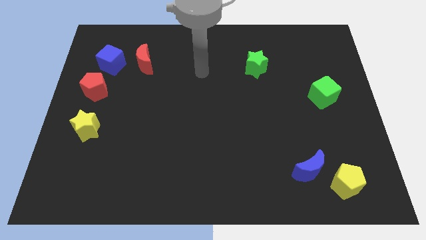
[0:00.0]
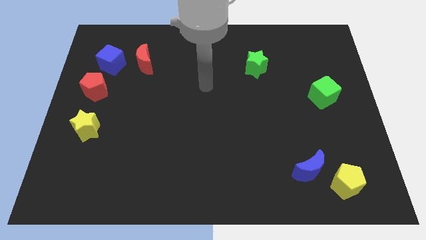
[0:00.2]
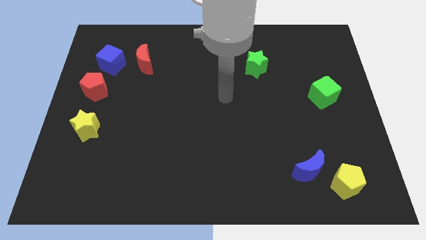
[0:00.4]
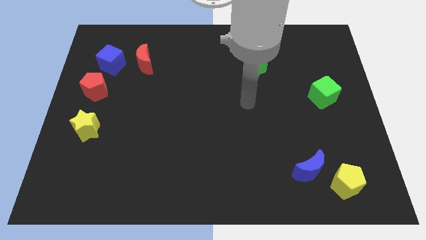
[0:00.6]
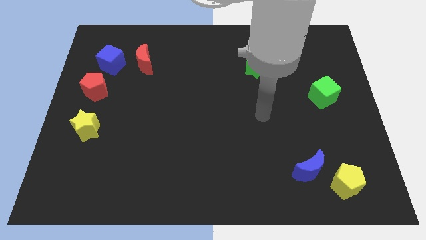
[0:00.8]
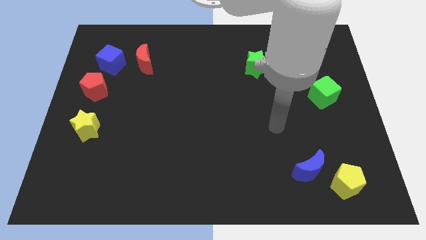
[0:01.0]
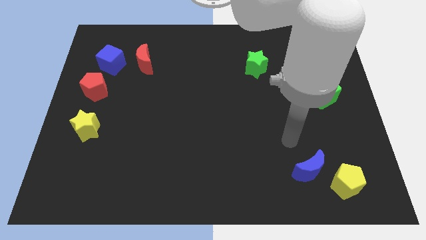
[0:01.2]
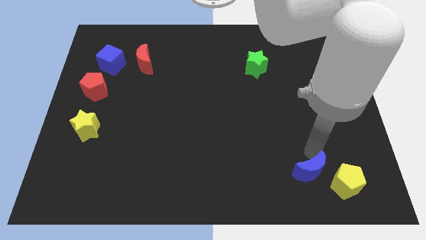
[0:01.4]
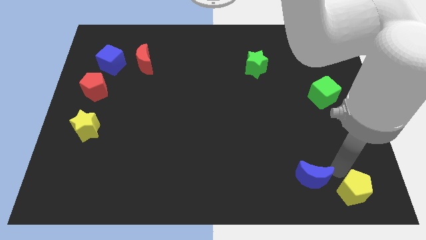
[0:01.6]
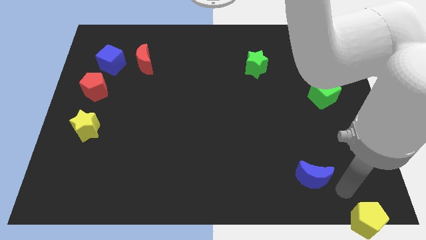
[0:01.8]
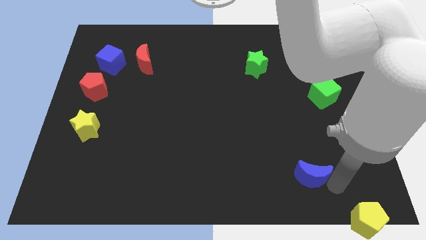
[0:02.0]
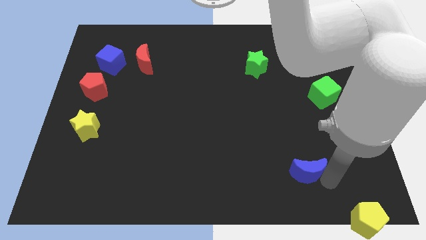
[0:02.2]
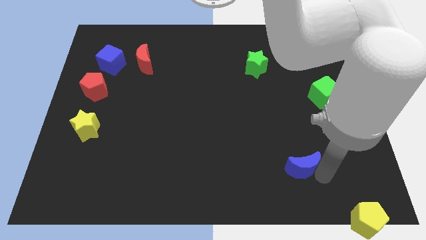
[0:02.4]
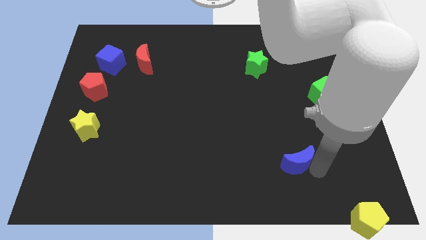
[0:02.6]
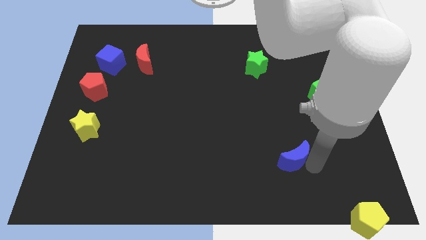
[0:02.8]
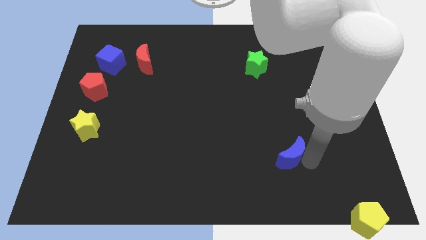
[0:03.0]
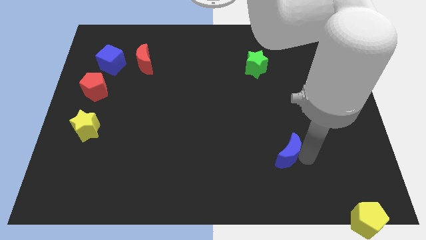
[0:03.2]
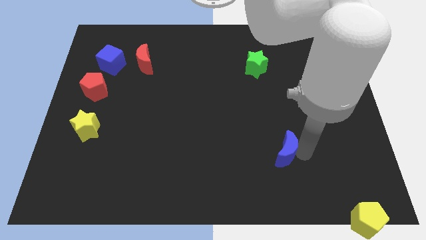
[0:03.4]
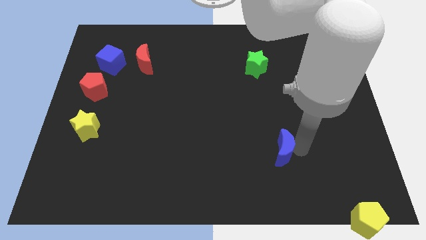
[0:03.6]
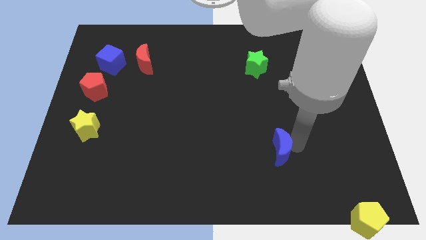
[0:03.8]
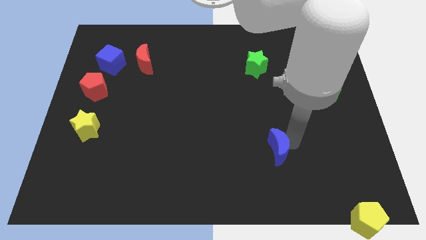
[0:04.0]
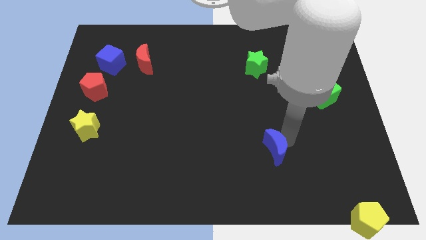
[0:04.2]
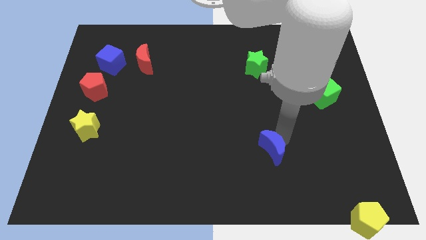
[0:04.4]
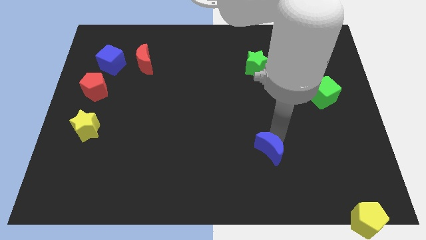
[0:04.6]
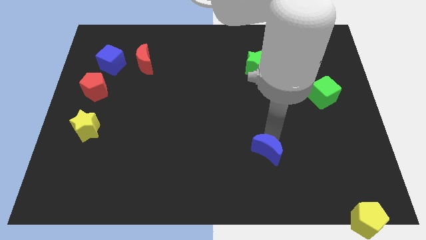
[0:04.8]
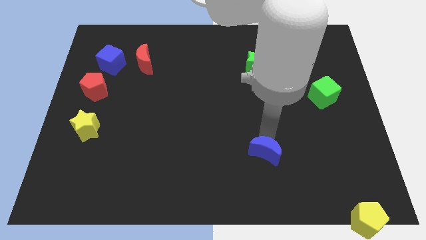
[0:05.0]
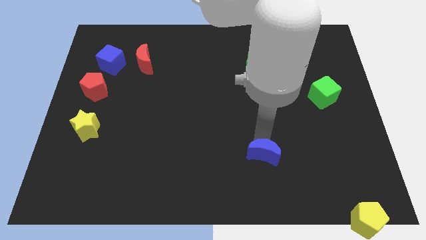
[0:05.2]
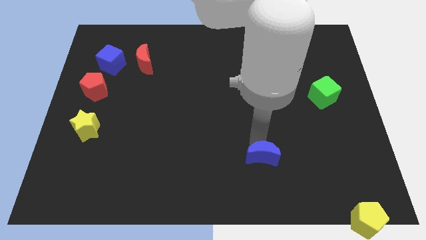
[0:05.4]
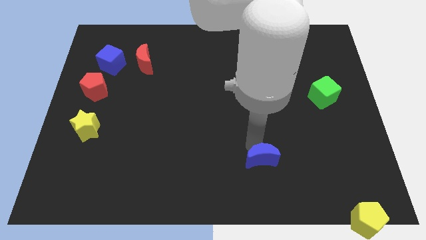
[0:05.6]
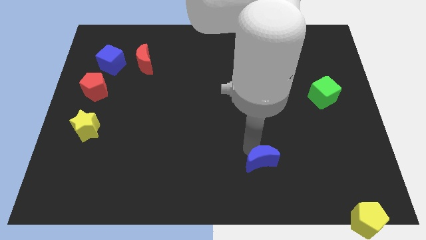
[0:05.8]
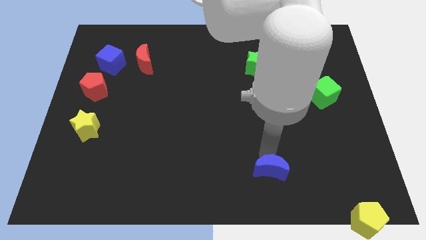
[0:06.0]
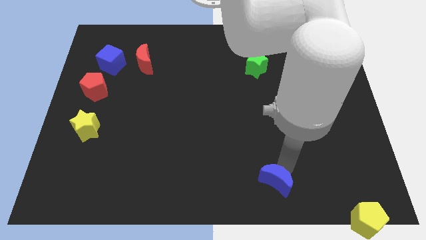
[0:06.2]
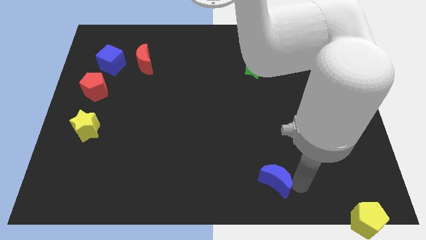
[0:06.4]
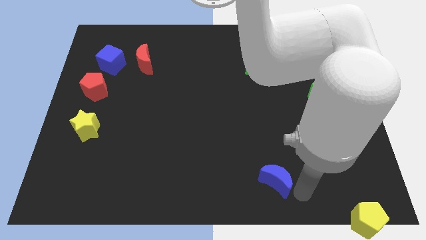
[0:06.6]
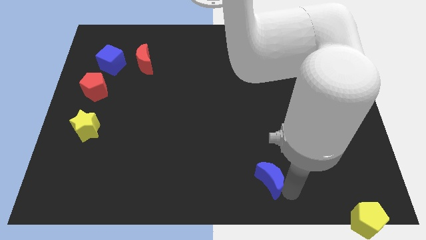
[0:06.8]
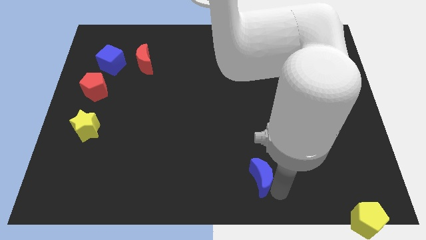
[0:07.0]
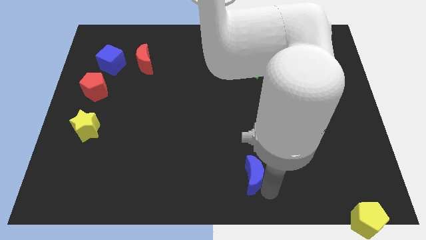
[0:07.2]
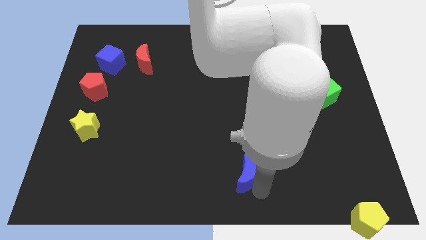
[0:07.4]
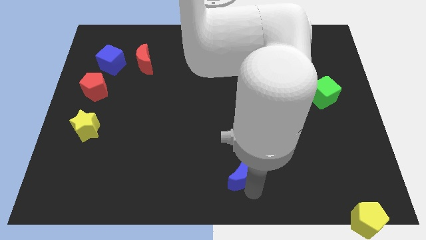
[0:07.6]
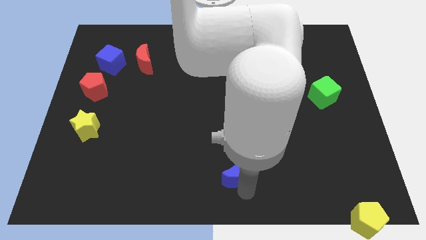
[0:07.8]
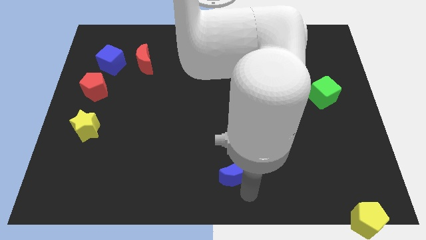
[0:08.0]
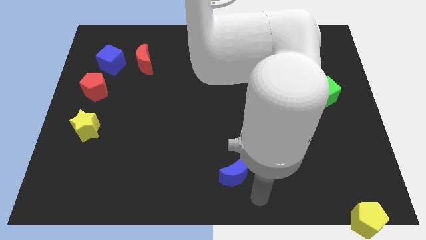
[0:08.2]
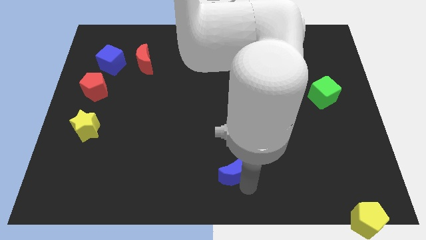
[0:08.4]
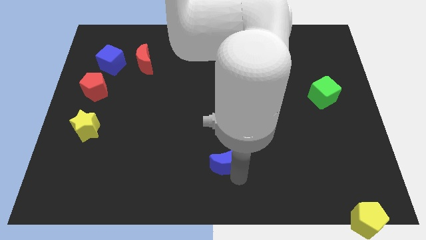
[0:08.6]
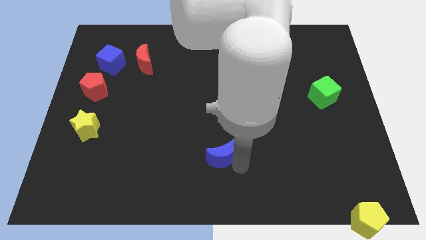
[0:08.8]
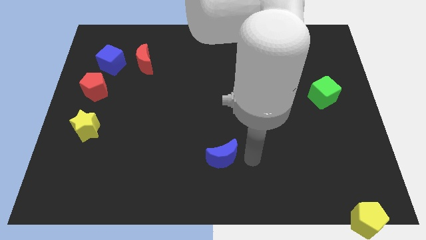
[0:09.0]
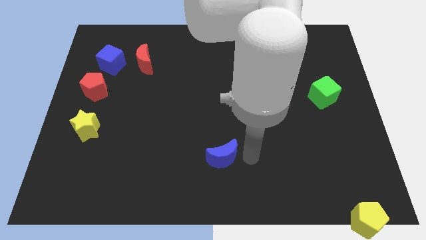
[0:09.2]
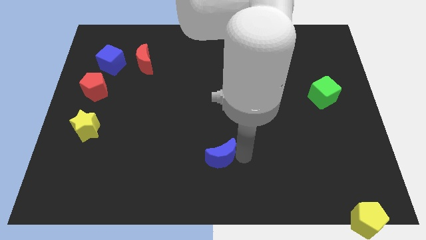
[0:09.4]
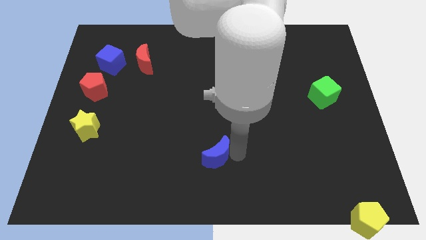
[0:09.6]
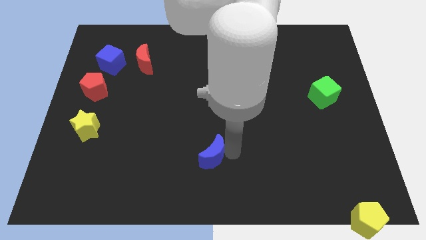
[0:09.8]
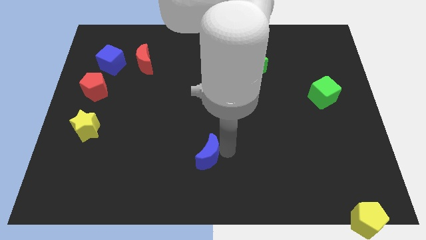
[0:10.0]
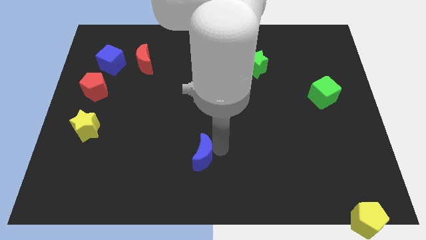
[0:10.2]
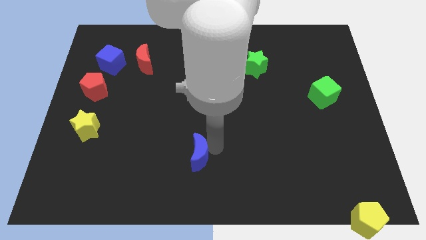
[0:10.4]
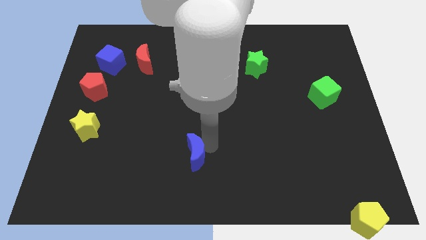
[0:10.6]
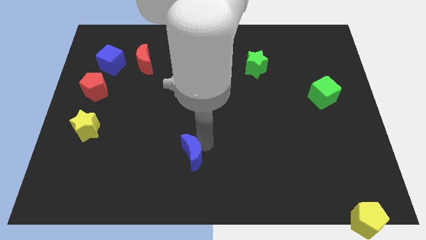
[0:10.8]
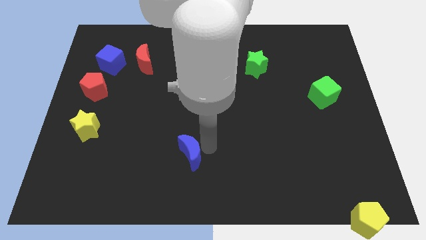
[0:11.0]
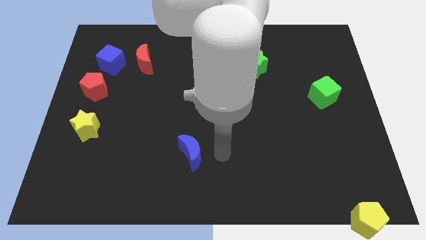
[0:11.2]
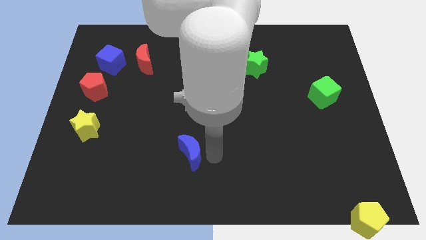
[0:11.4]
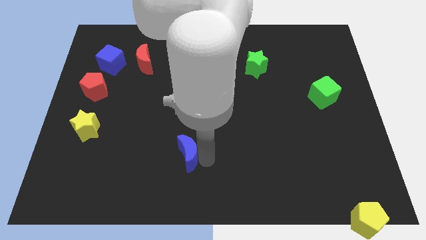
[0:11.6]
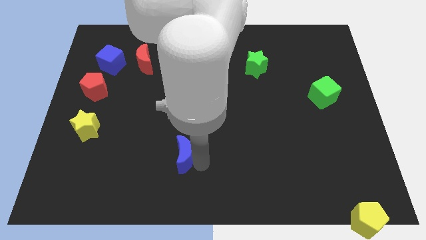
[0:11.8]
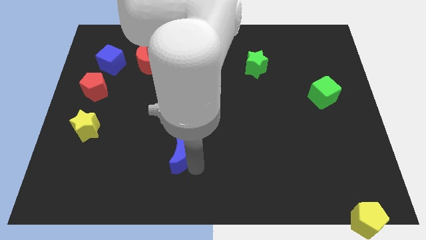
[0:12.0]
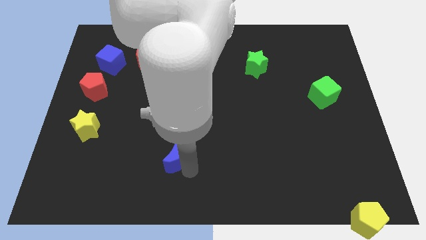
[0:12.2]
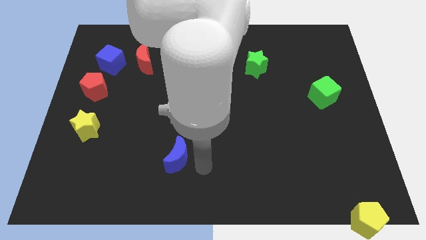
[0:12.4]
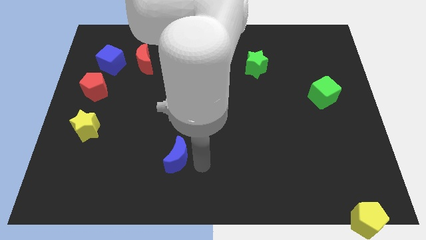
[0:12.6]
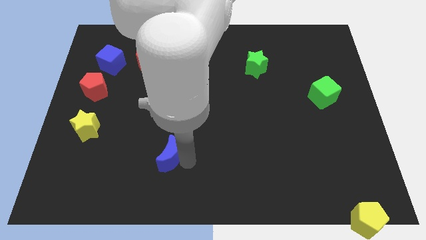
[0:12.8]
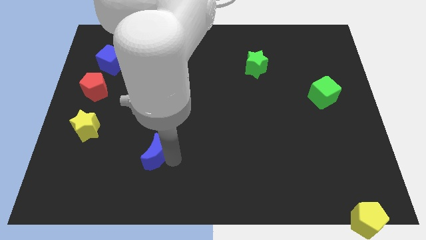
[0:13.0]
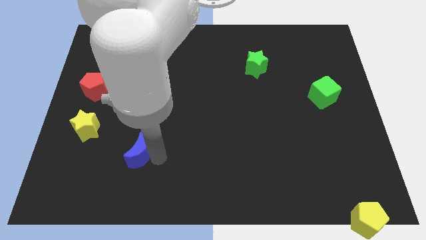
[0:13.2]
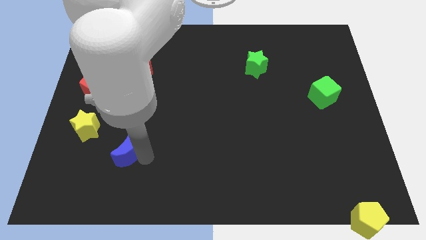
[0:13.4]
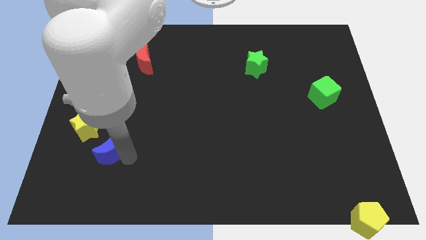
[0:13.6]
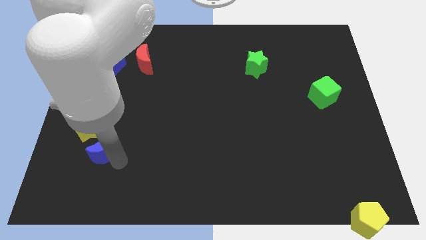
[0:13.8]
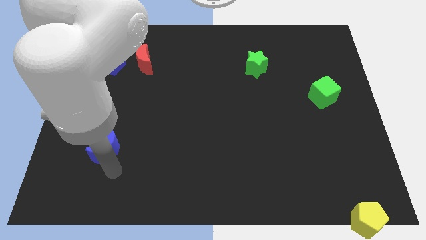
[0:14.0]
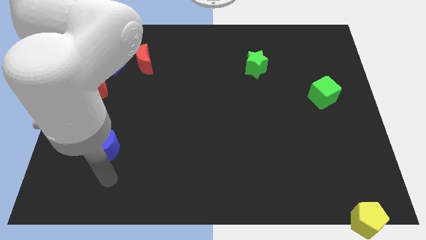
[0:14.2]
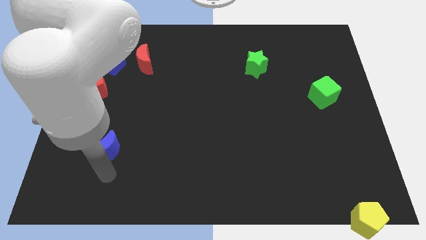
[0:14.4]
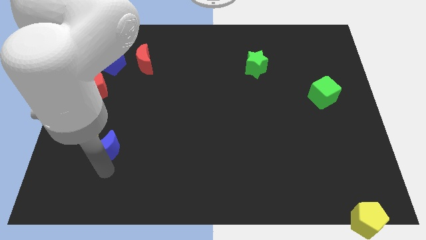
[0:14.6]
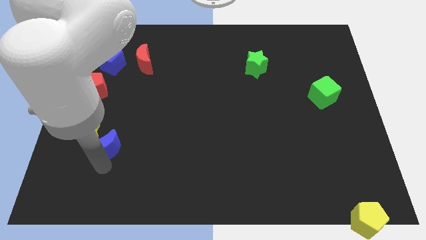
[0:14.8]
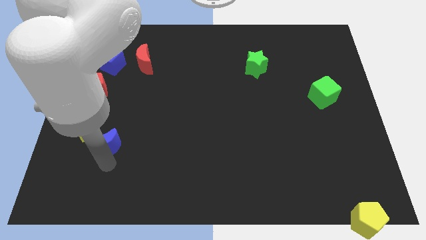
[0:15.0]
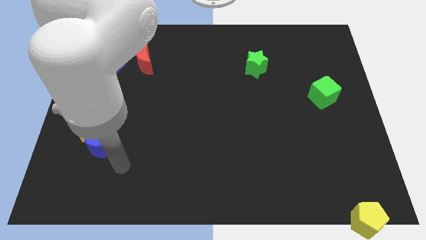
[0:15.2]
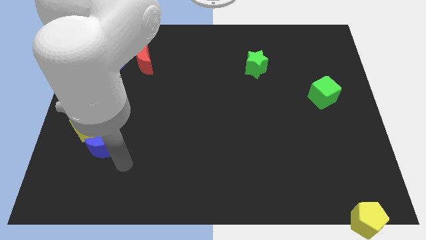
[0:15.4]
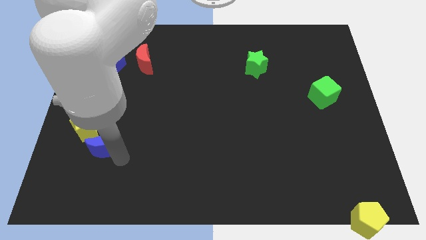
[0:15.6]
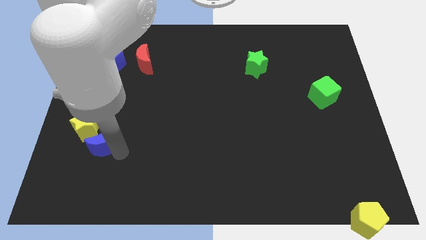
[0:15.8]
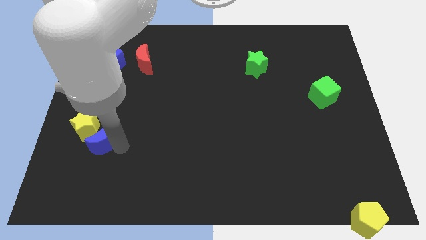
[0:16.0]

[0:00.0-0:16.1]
put the blue moon towards the yellow star

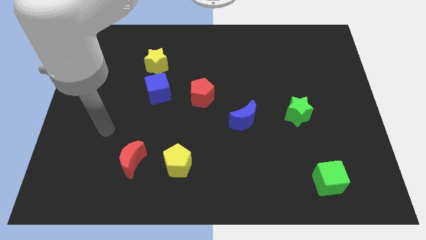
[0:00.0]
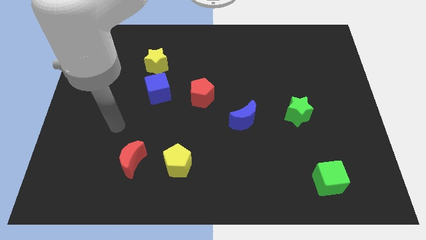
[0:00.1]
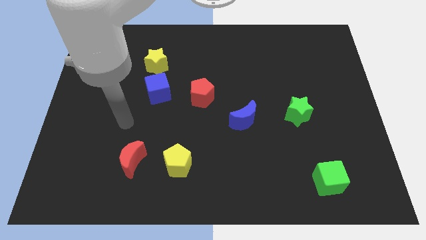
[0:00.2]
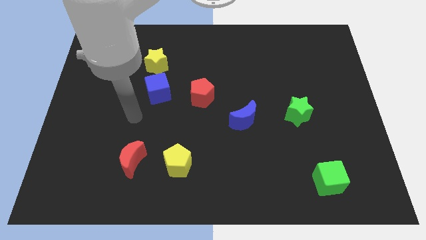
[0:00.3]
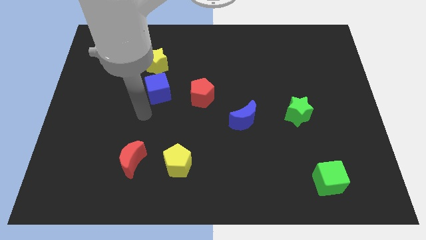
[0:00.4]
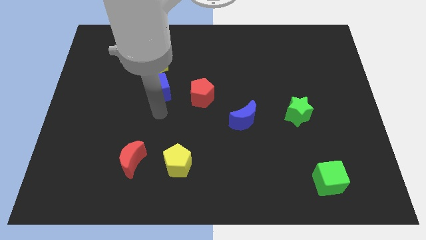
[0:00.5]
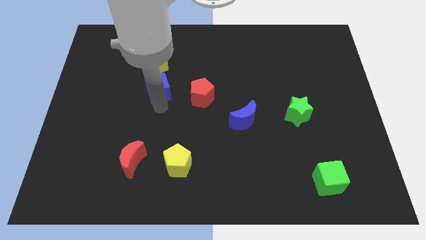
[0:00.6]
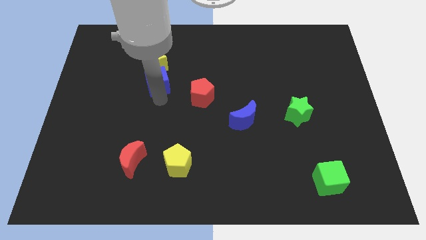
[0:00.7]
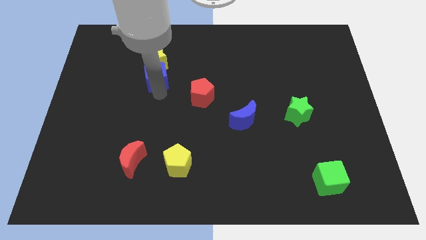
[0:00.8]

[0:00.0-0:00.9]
put the blue cube next to the yellow star
